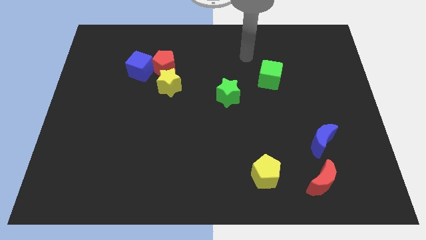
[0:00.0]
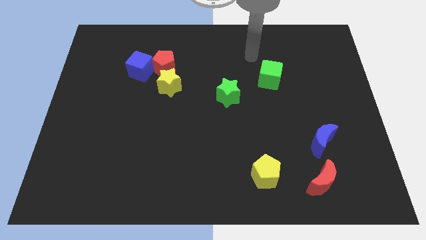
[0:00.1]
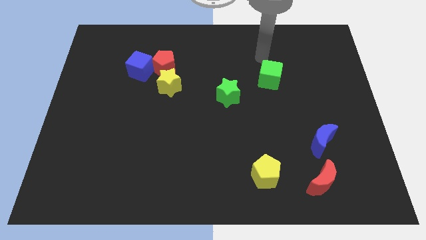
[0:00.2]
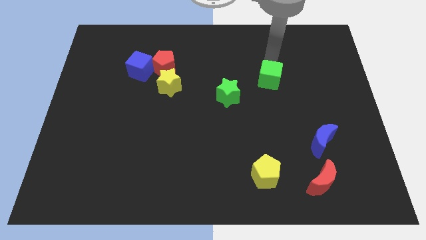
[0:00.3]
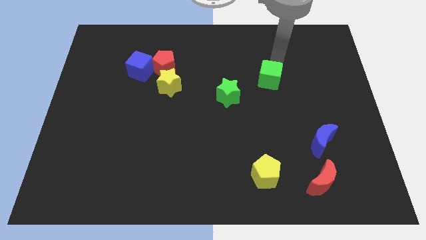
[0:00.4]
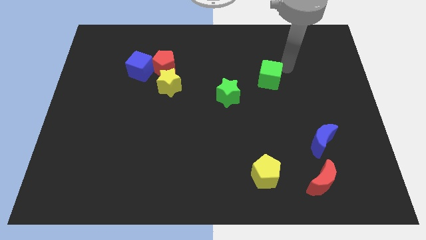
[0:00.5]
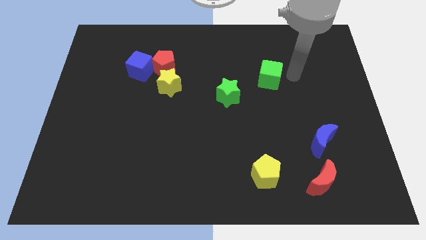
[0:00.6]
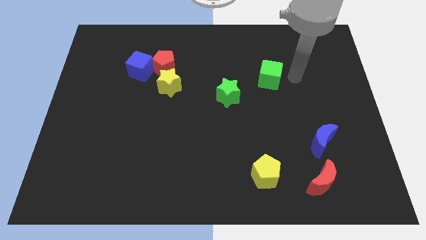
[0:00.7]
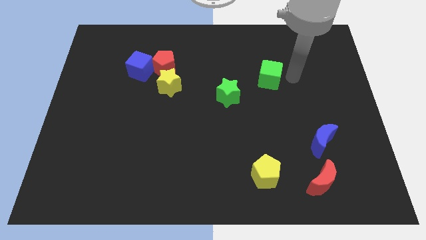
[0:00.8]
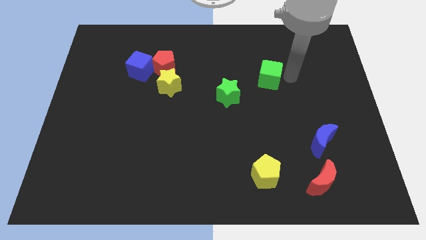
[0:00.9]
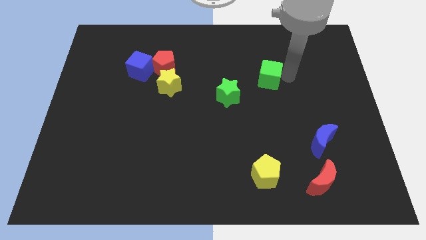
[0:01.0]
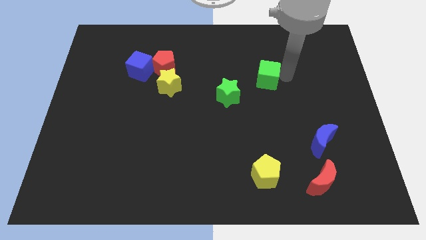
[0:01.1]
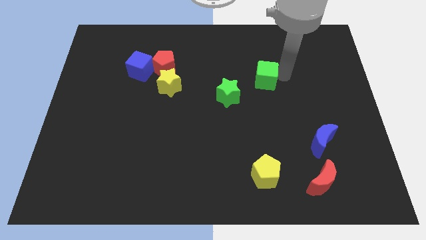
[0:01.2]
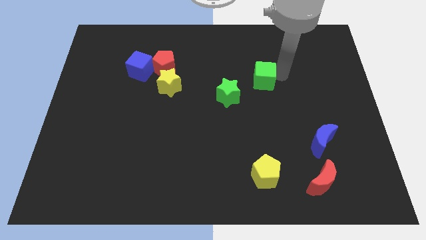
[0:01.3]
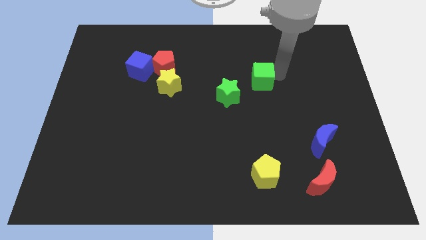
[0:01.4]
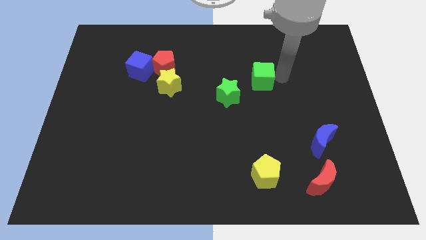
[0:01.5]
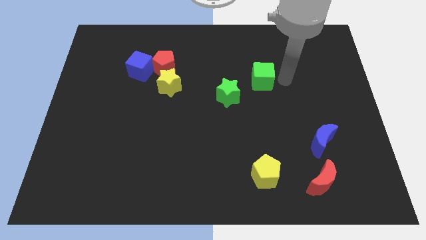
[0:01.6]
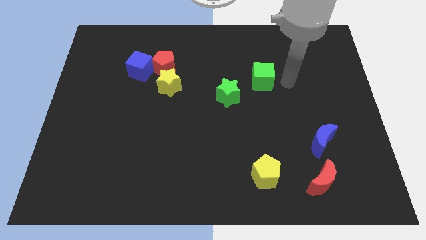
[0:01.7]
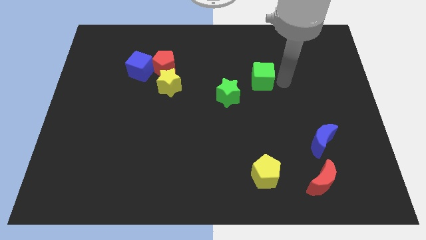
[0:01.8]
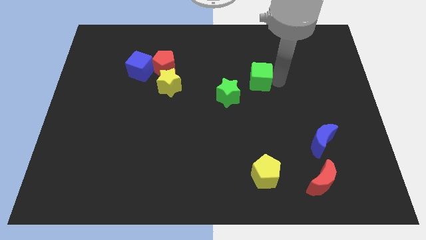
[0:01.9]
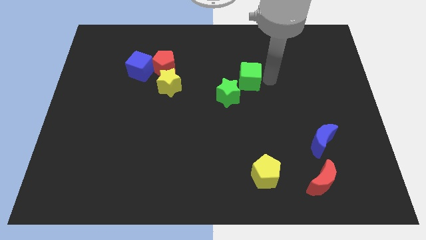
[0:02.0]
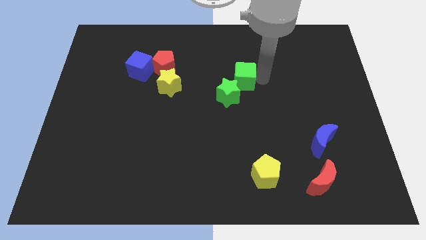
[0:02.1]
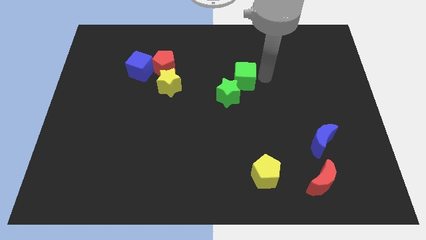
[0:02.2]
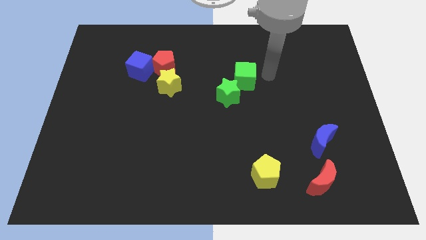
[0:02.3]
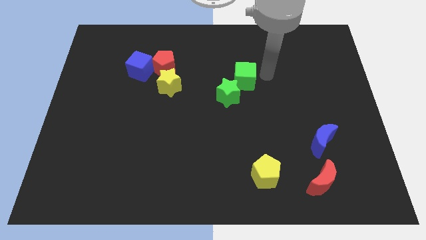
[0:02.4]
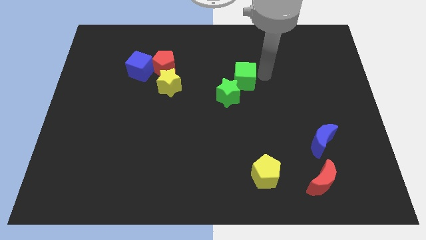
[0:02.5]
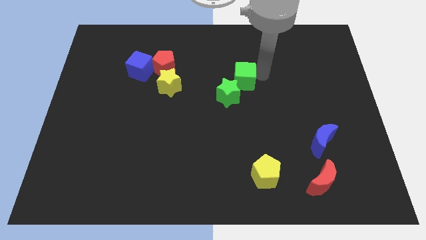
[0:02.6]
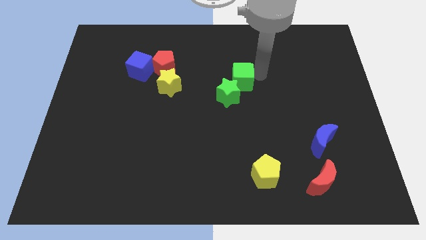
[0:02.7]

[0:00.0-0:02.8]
push the green cube to the left a little

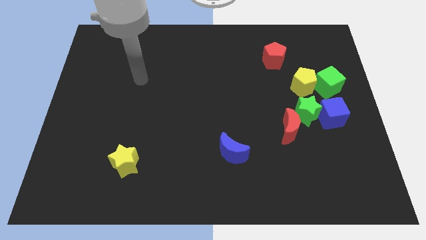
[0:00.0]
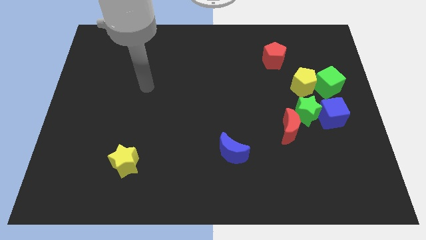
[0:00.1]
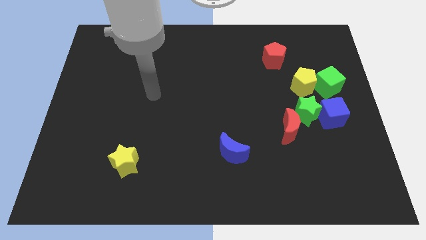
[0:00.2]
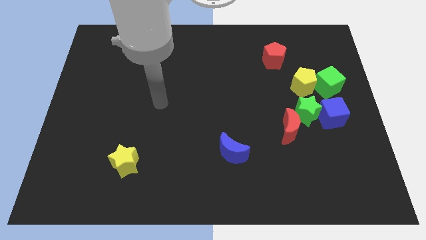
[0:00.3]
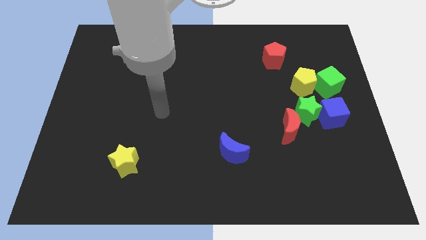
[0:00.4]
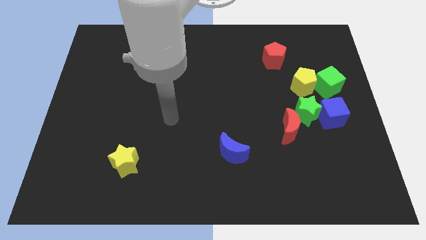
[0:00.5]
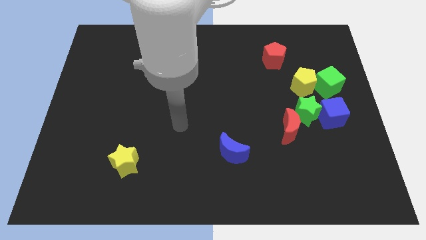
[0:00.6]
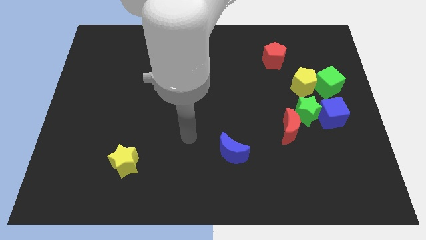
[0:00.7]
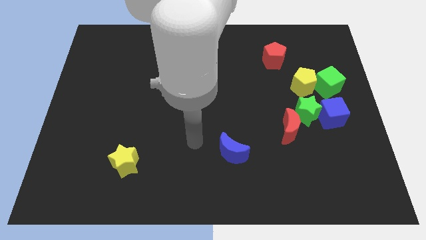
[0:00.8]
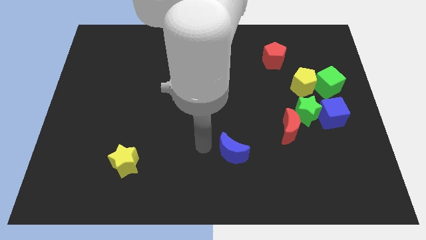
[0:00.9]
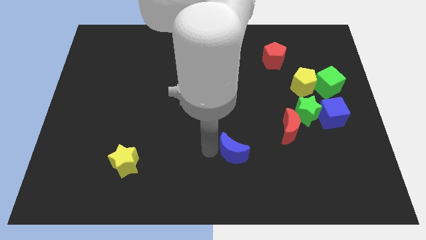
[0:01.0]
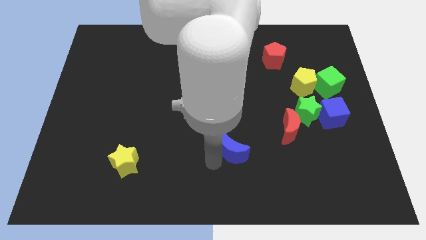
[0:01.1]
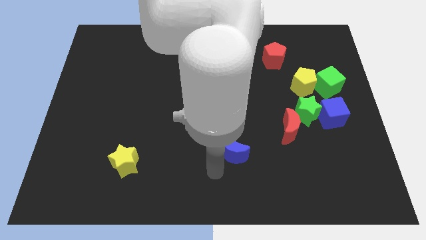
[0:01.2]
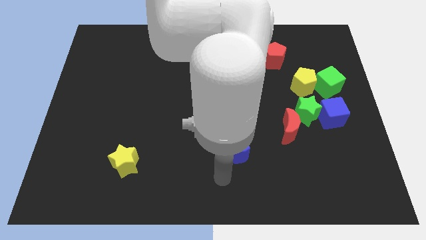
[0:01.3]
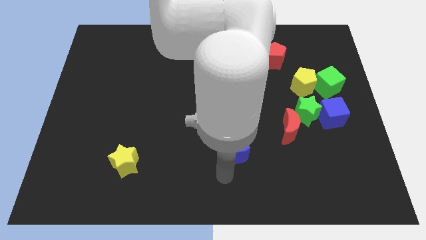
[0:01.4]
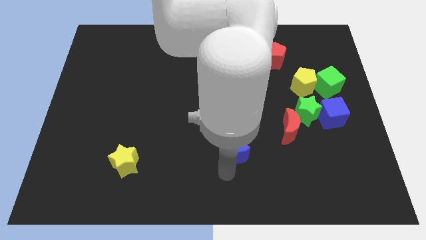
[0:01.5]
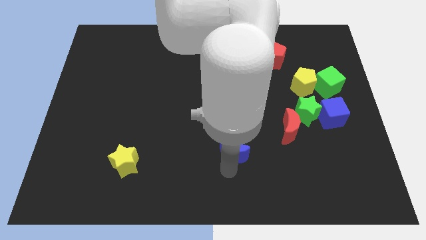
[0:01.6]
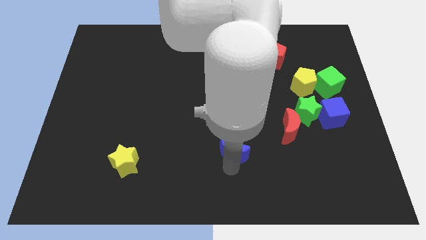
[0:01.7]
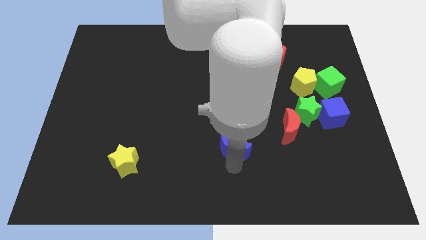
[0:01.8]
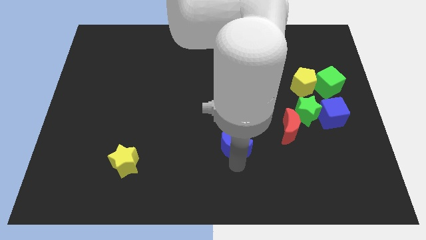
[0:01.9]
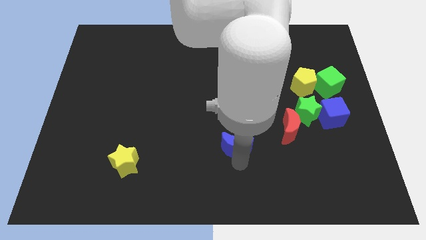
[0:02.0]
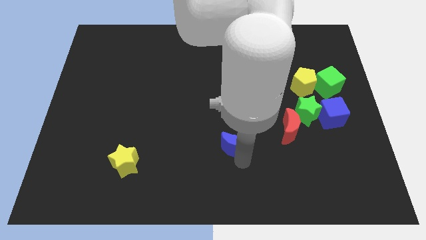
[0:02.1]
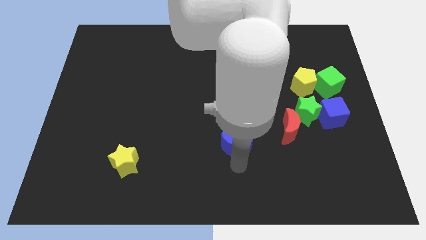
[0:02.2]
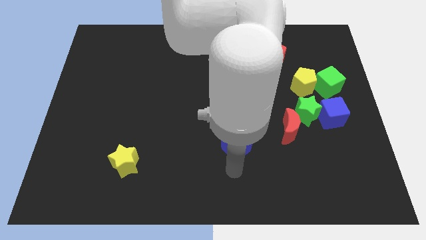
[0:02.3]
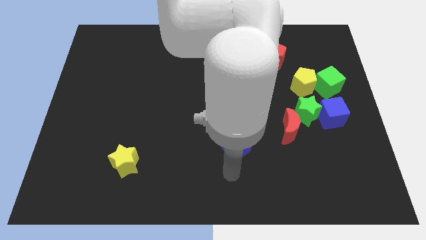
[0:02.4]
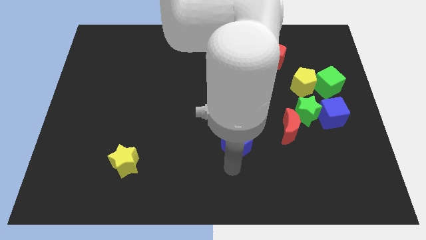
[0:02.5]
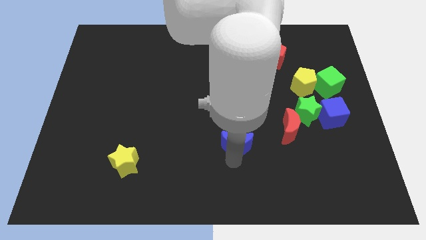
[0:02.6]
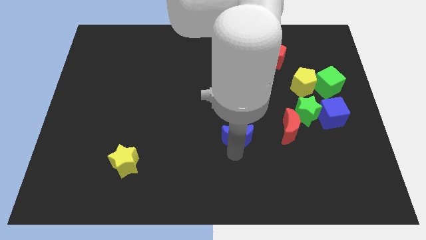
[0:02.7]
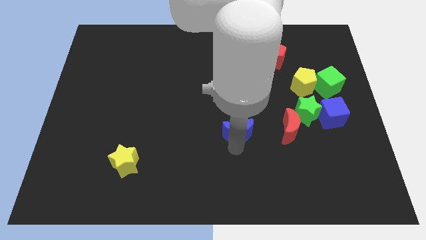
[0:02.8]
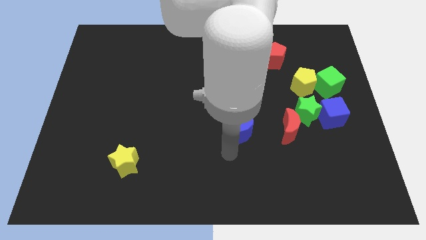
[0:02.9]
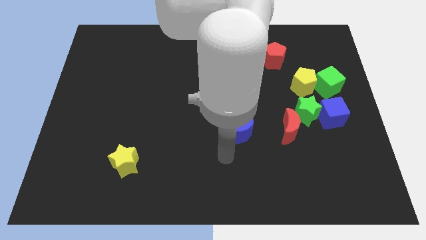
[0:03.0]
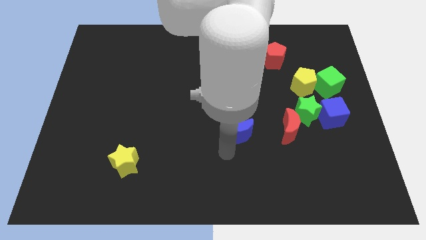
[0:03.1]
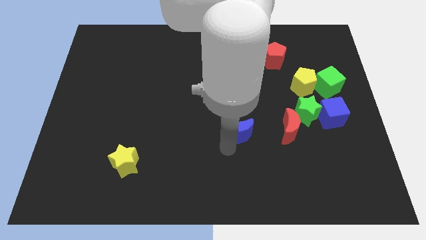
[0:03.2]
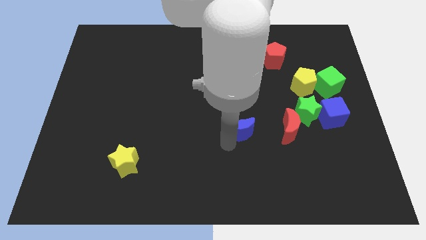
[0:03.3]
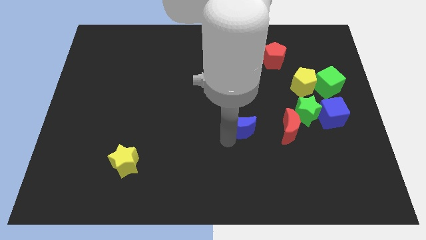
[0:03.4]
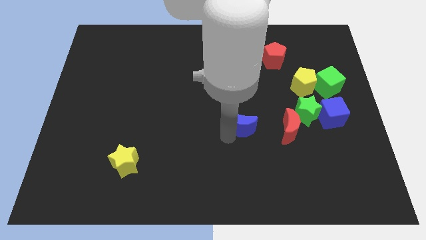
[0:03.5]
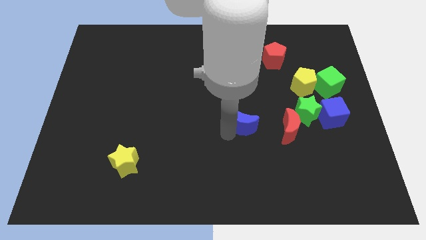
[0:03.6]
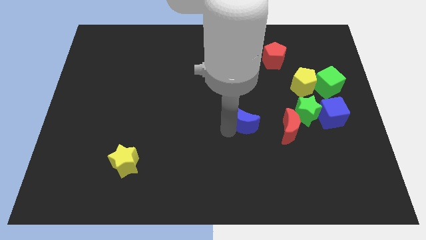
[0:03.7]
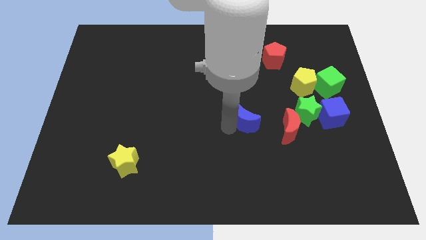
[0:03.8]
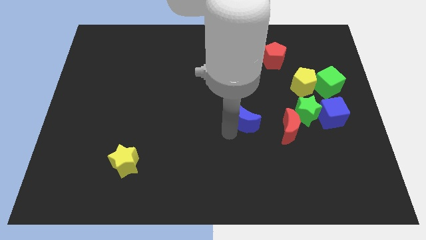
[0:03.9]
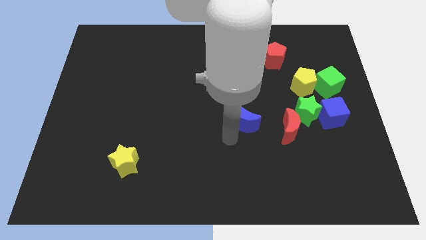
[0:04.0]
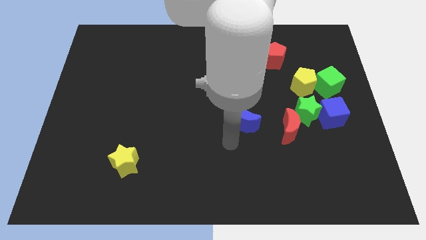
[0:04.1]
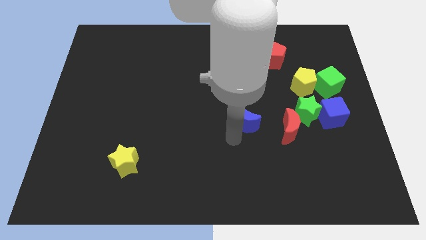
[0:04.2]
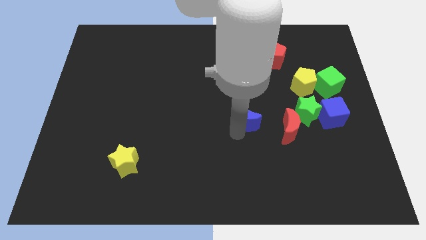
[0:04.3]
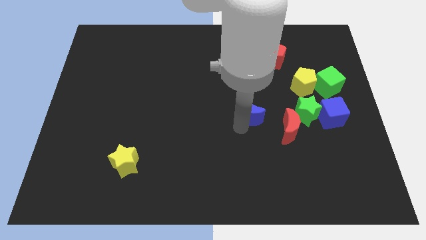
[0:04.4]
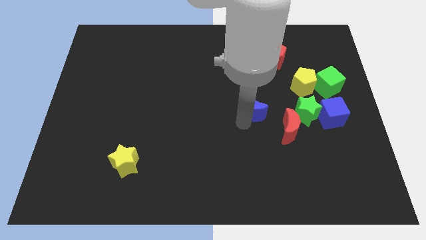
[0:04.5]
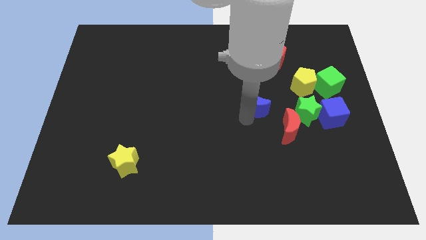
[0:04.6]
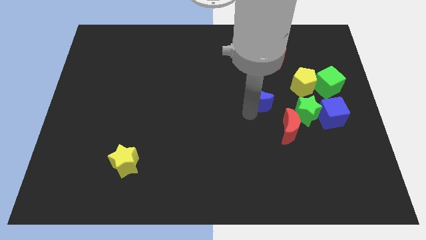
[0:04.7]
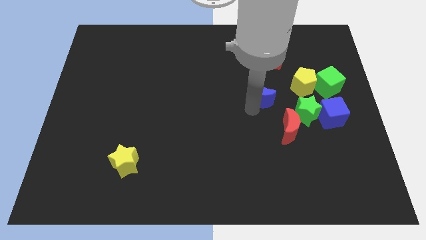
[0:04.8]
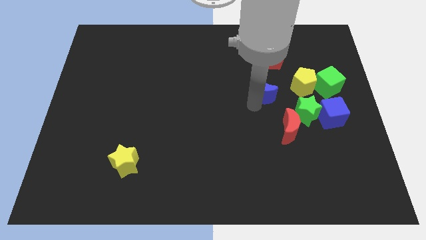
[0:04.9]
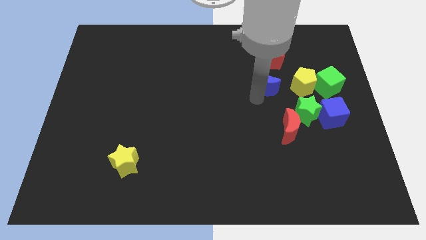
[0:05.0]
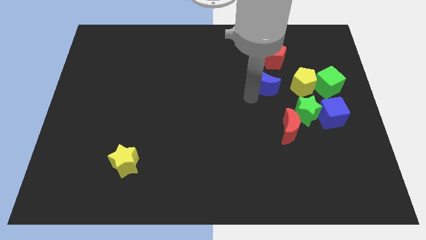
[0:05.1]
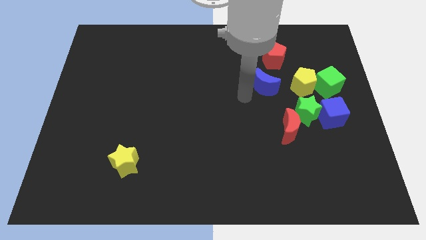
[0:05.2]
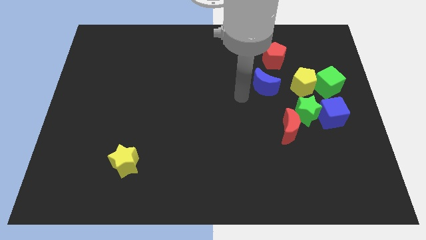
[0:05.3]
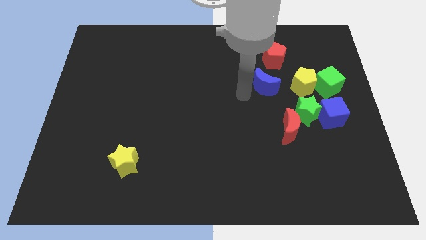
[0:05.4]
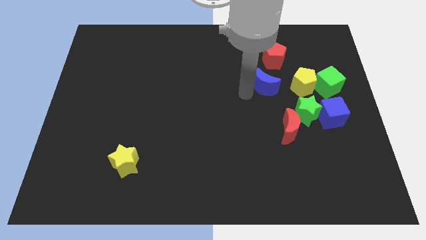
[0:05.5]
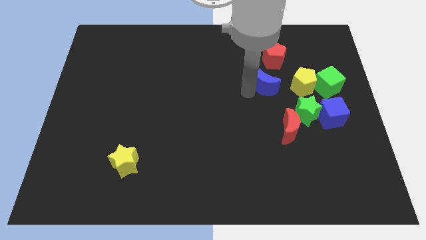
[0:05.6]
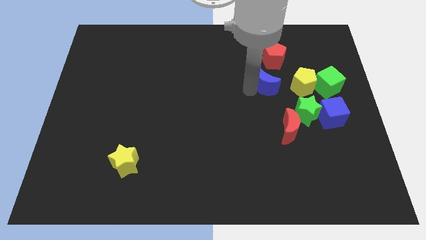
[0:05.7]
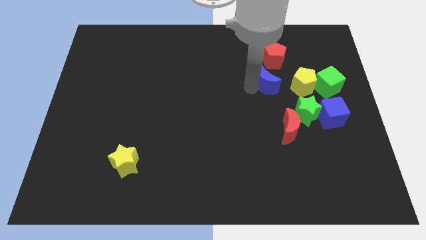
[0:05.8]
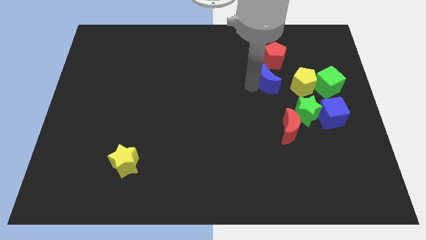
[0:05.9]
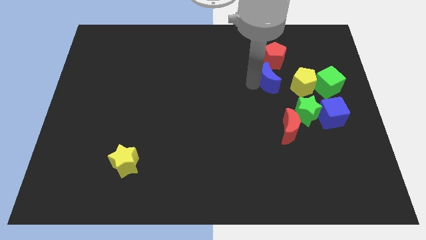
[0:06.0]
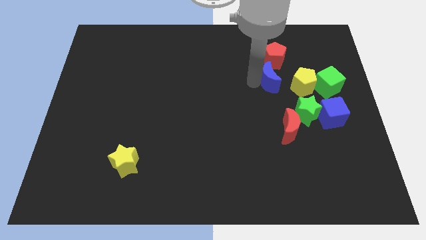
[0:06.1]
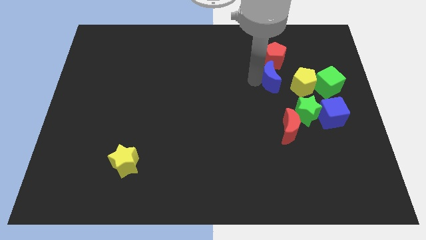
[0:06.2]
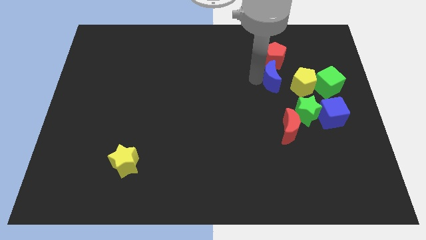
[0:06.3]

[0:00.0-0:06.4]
slide the blue moon up and then right
